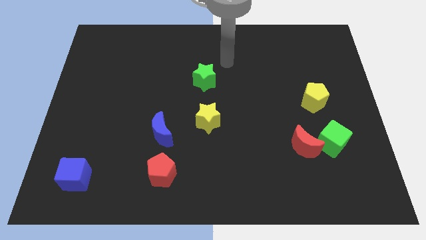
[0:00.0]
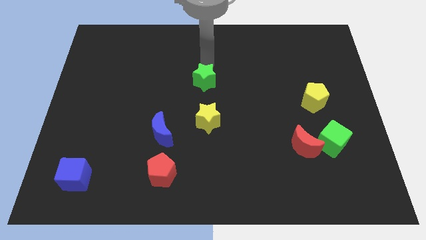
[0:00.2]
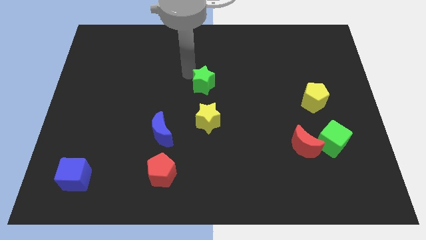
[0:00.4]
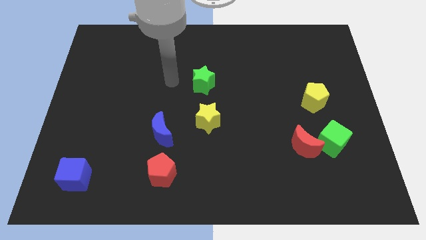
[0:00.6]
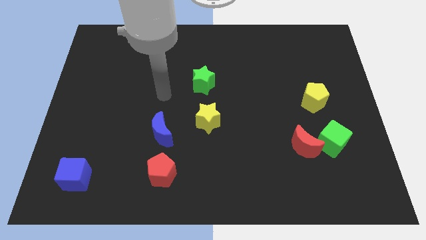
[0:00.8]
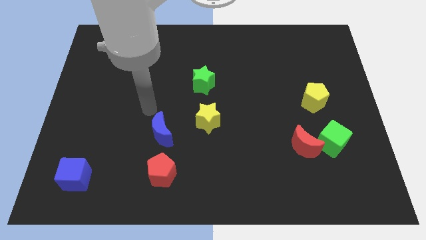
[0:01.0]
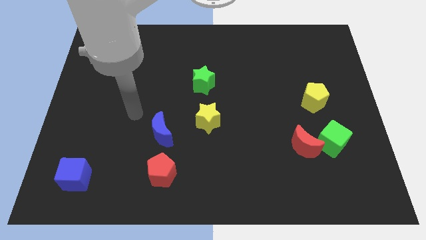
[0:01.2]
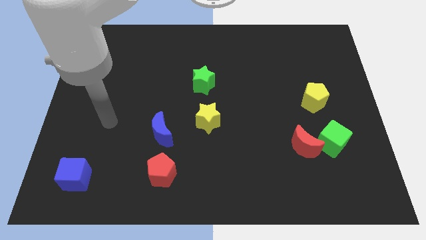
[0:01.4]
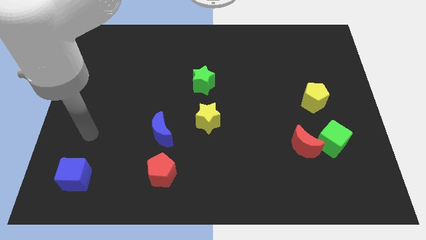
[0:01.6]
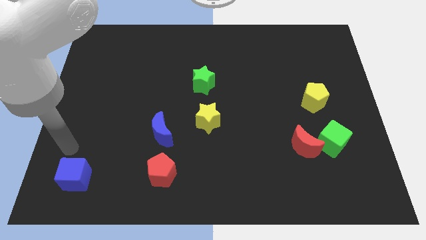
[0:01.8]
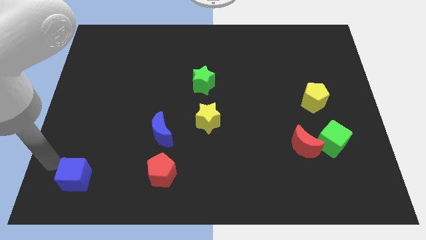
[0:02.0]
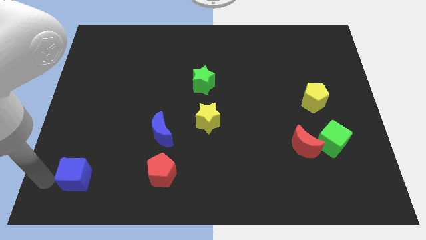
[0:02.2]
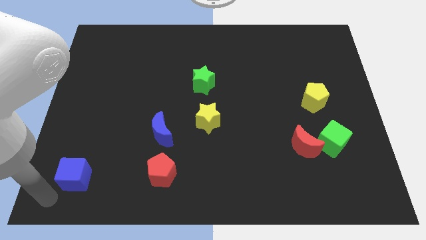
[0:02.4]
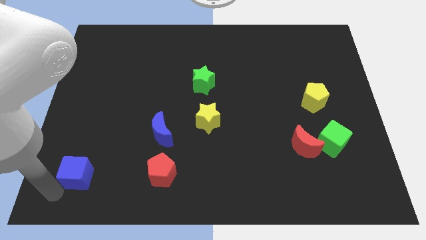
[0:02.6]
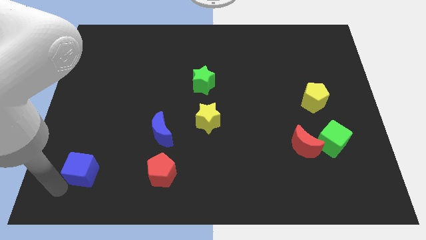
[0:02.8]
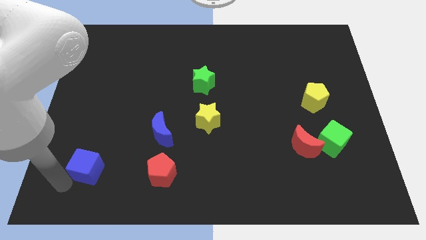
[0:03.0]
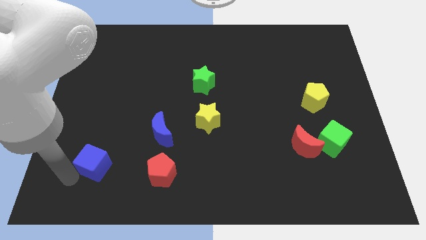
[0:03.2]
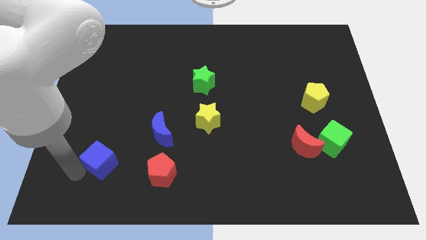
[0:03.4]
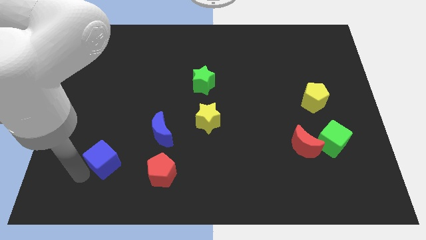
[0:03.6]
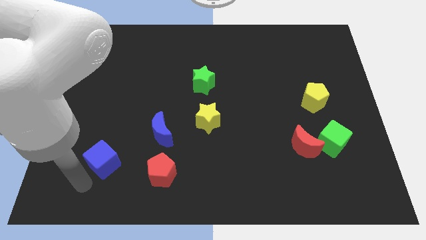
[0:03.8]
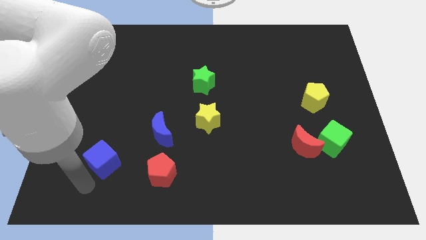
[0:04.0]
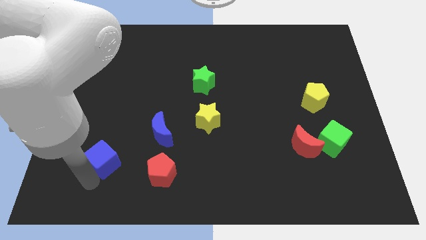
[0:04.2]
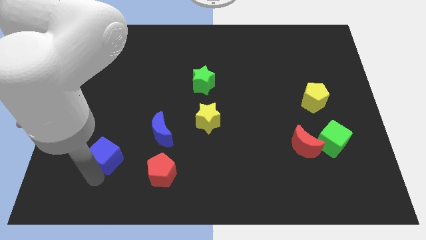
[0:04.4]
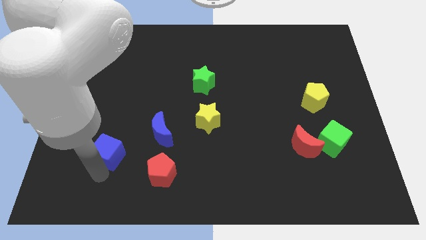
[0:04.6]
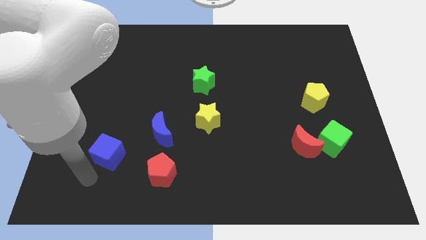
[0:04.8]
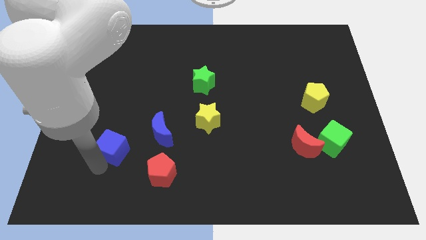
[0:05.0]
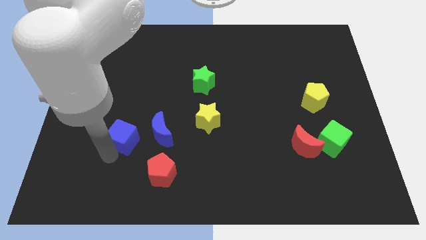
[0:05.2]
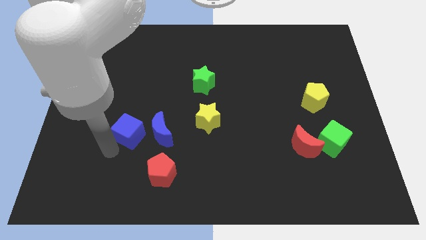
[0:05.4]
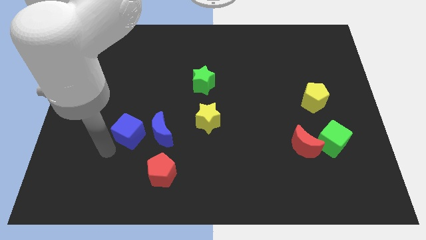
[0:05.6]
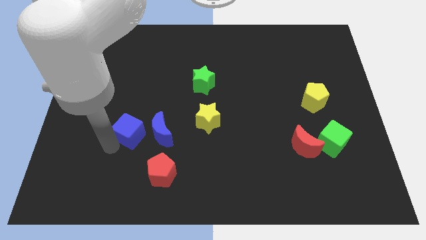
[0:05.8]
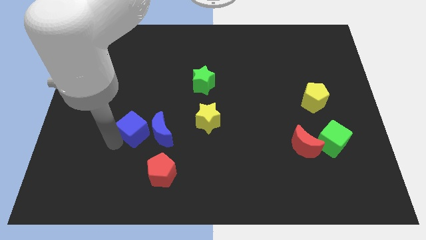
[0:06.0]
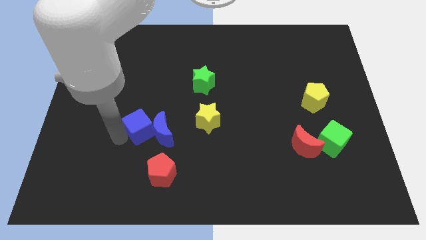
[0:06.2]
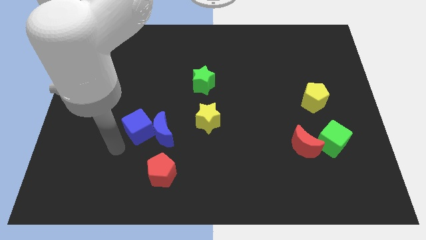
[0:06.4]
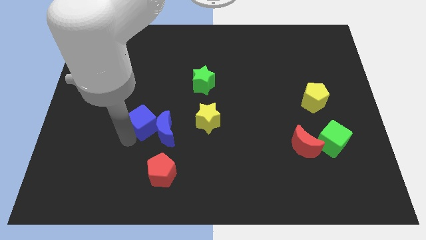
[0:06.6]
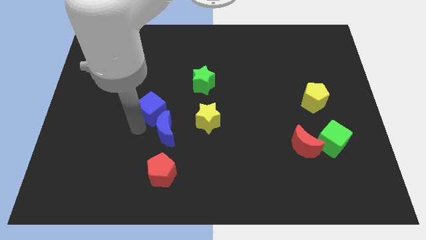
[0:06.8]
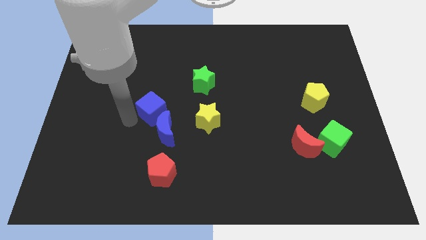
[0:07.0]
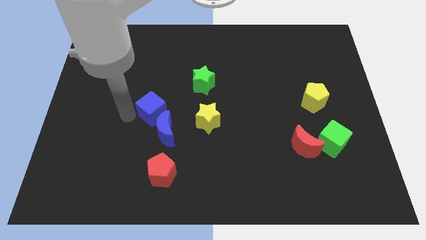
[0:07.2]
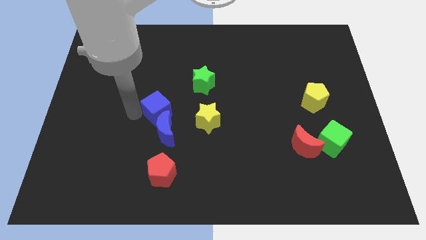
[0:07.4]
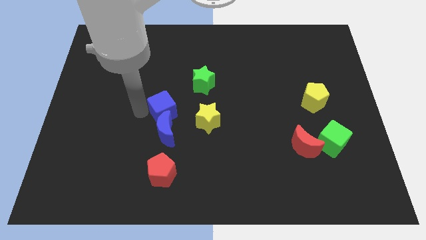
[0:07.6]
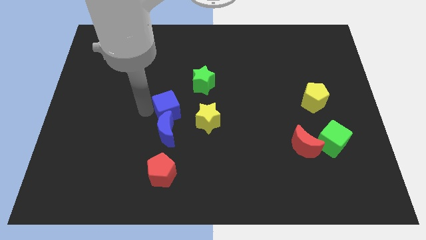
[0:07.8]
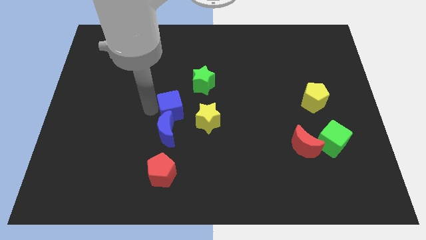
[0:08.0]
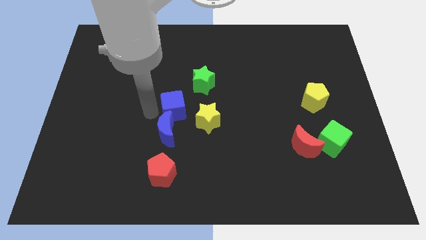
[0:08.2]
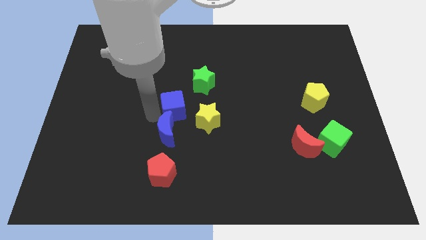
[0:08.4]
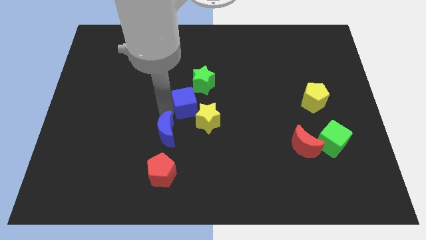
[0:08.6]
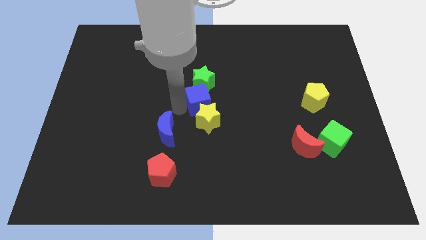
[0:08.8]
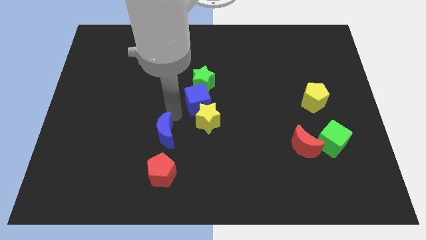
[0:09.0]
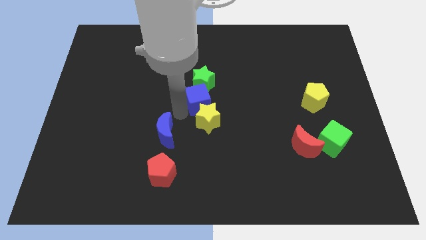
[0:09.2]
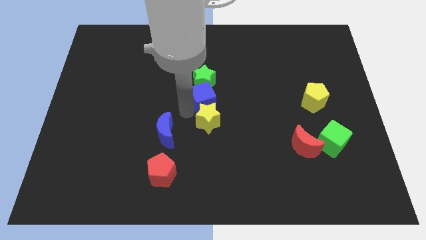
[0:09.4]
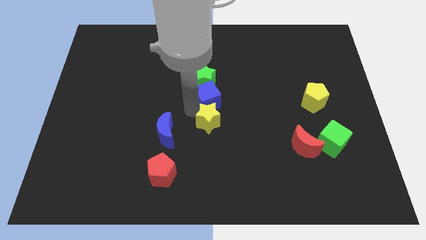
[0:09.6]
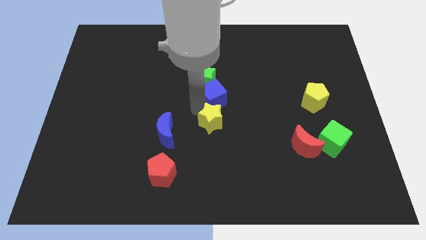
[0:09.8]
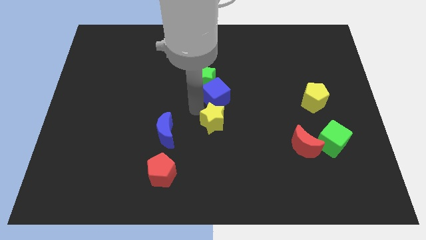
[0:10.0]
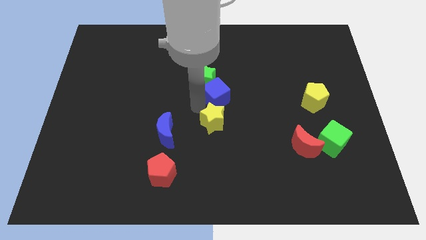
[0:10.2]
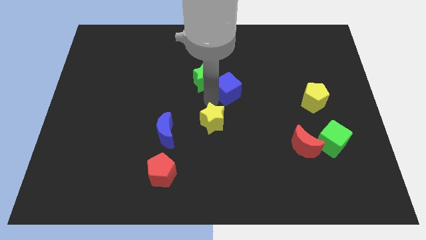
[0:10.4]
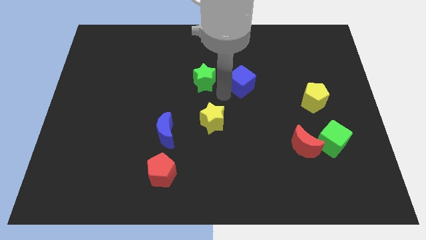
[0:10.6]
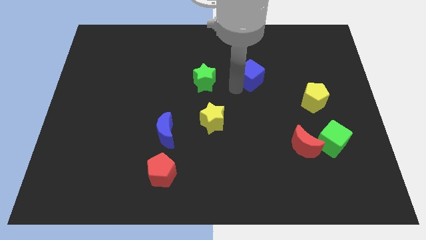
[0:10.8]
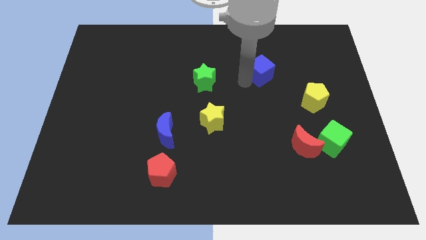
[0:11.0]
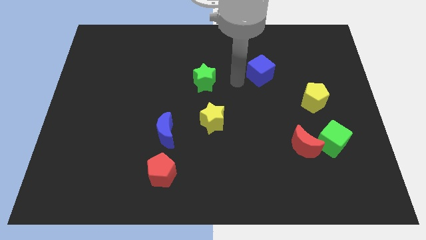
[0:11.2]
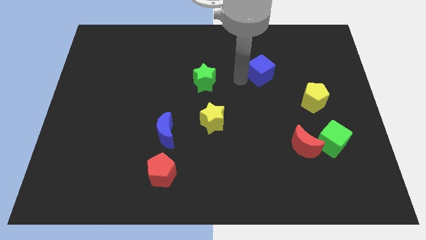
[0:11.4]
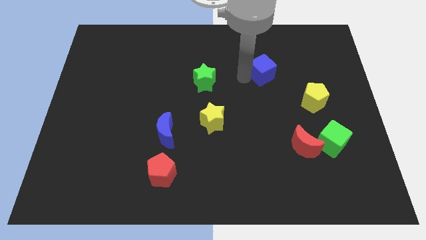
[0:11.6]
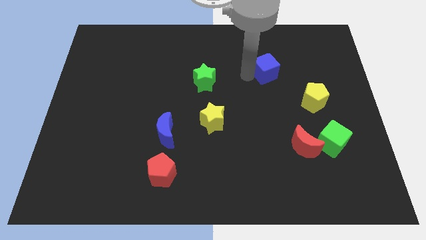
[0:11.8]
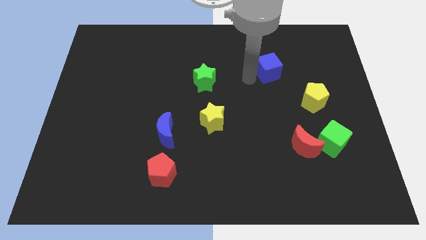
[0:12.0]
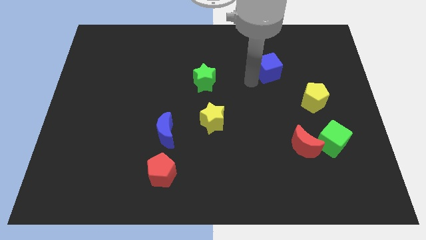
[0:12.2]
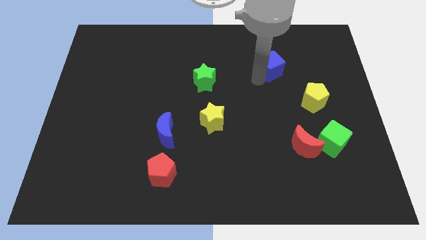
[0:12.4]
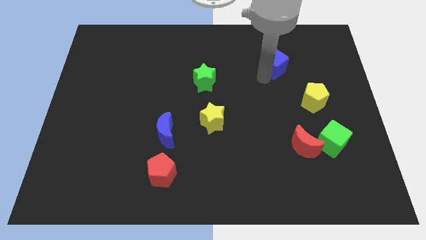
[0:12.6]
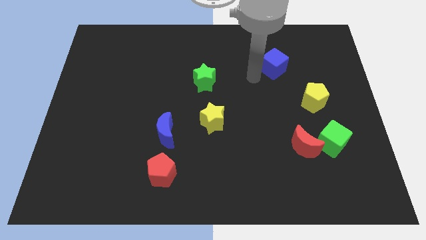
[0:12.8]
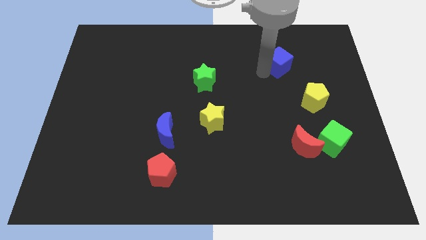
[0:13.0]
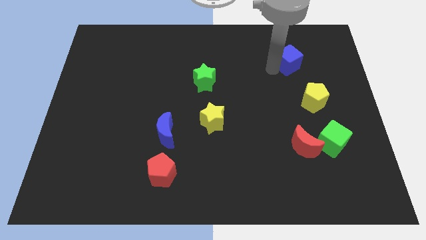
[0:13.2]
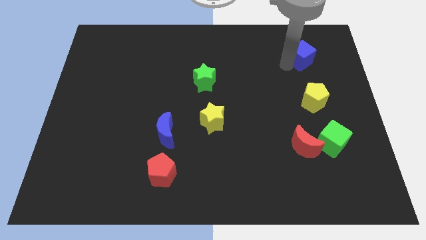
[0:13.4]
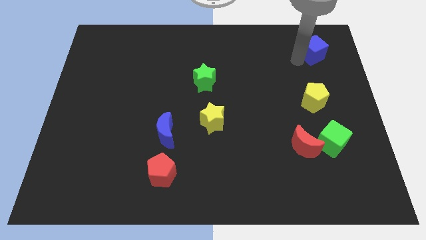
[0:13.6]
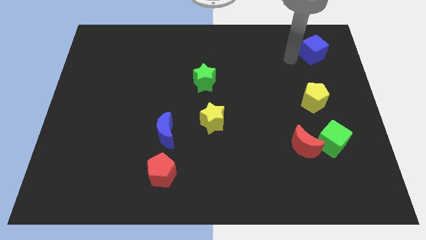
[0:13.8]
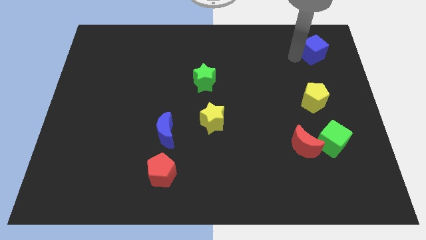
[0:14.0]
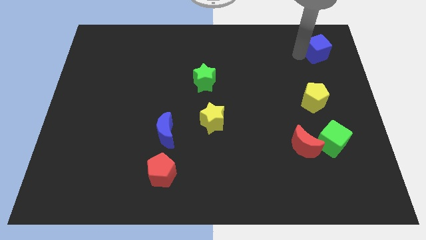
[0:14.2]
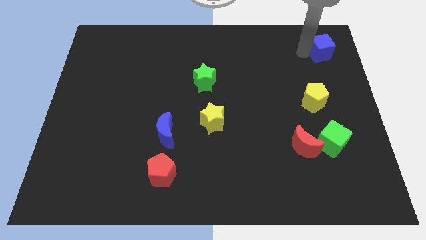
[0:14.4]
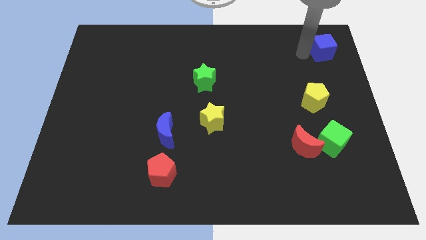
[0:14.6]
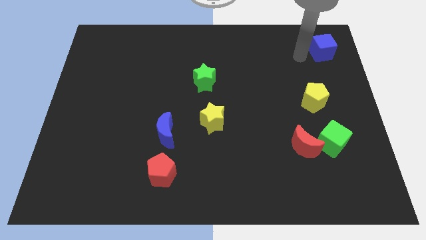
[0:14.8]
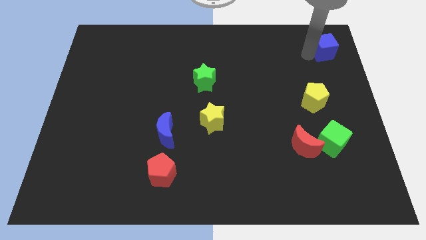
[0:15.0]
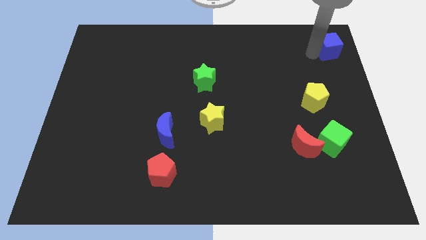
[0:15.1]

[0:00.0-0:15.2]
put the blue cube to the top right corner
